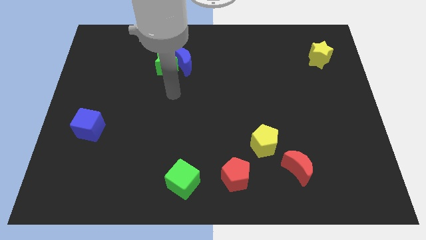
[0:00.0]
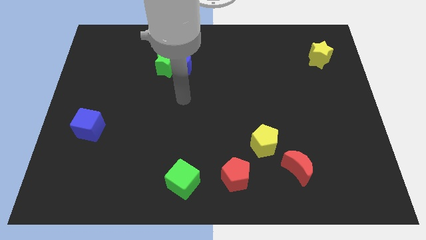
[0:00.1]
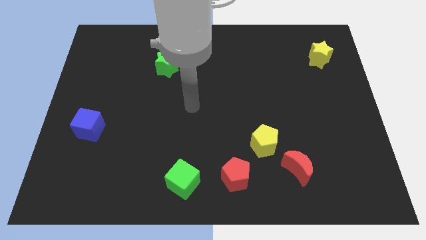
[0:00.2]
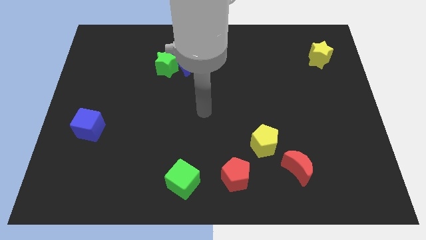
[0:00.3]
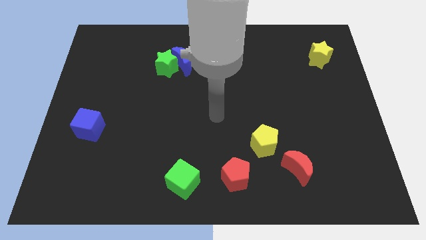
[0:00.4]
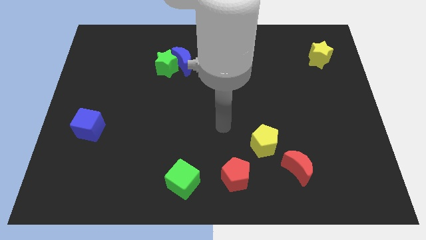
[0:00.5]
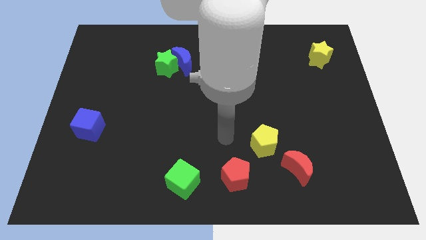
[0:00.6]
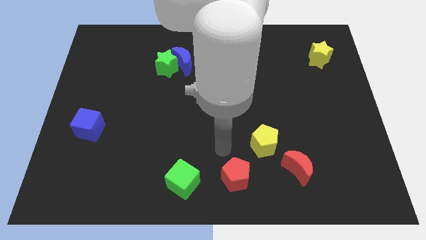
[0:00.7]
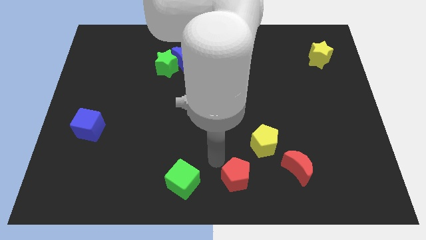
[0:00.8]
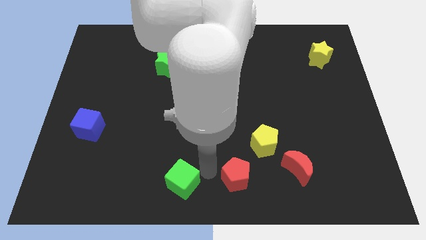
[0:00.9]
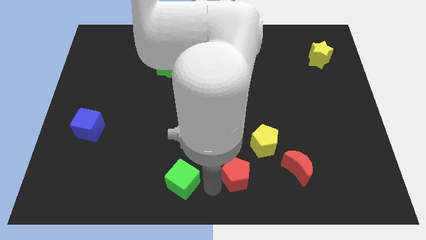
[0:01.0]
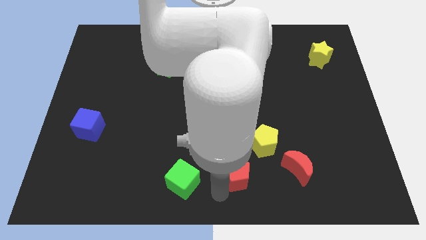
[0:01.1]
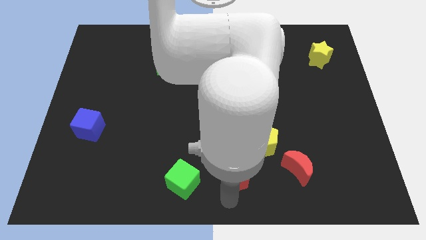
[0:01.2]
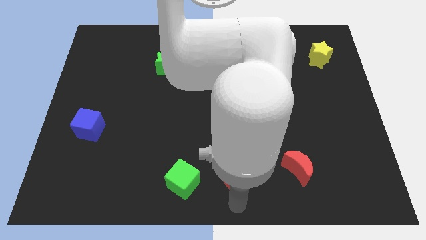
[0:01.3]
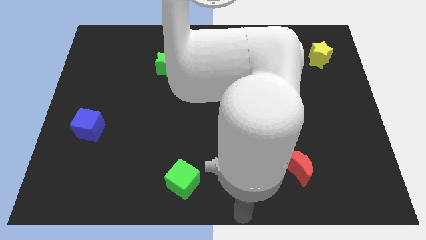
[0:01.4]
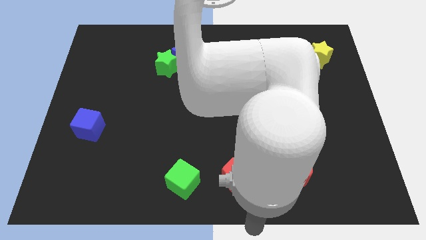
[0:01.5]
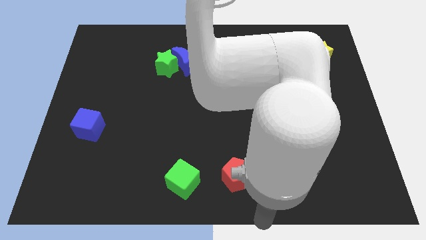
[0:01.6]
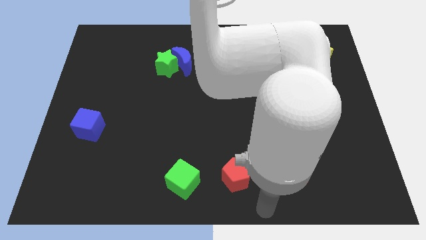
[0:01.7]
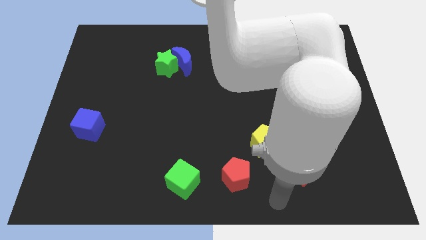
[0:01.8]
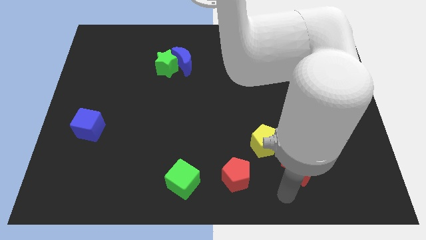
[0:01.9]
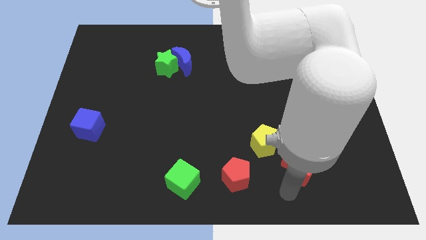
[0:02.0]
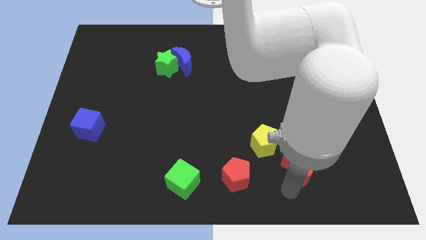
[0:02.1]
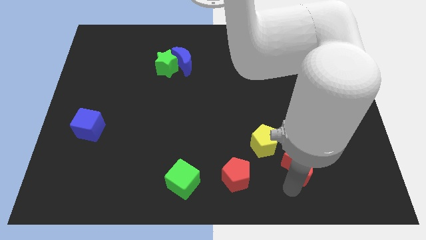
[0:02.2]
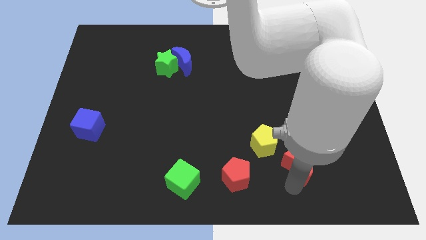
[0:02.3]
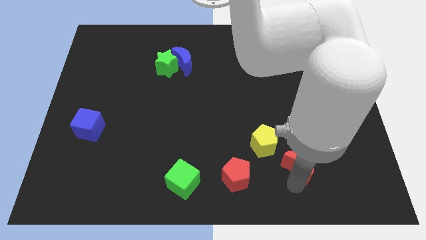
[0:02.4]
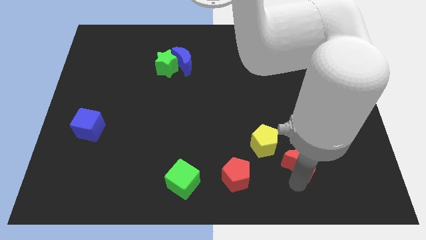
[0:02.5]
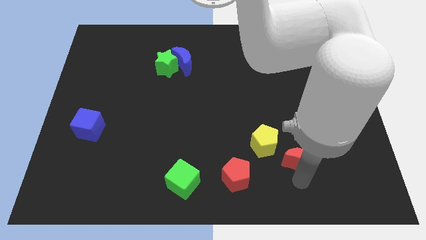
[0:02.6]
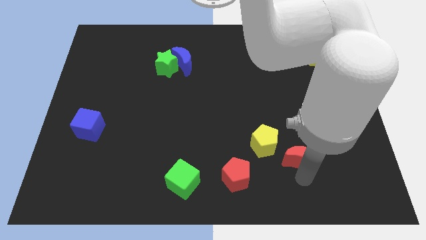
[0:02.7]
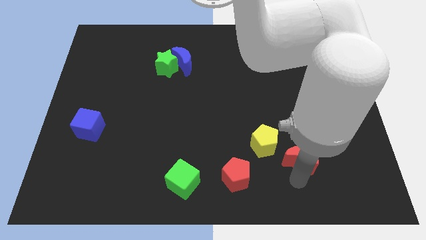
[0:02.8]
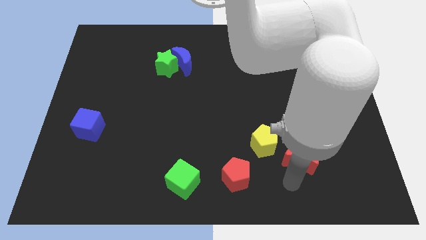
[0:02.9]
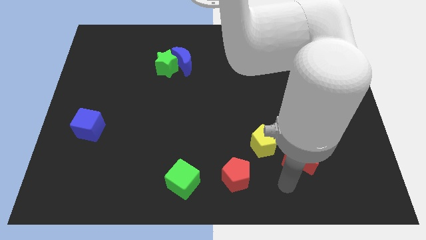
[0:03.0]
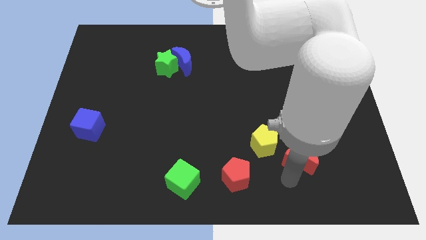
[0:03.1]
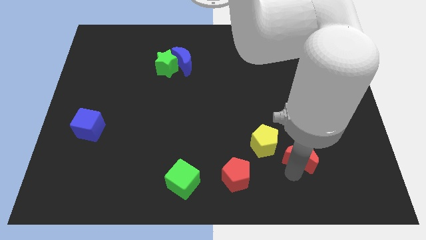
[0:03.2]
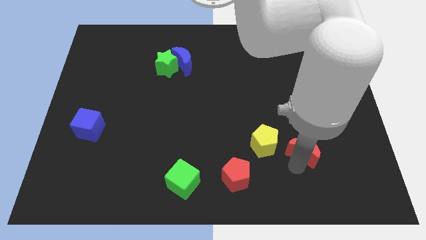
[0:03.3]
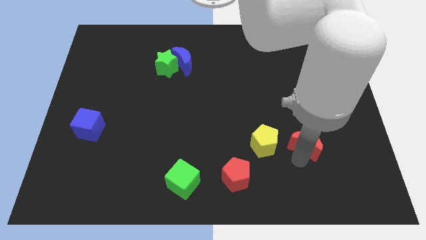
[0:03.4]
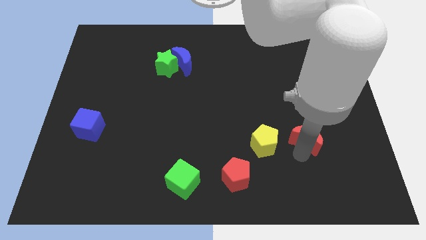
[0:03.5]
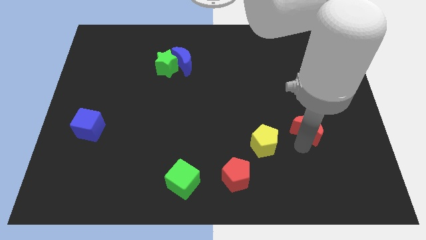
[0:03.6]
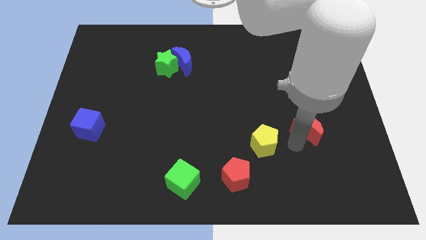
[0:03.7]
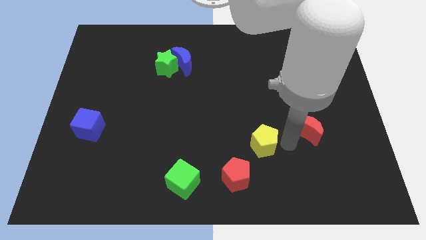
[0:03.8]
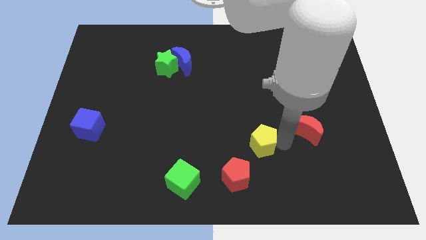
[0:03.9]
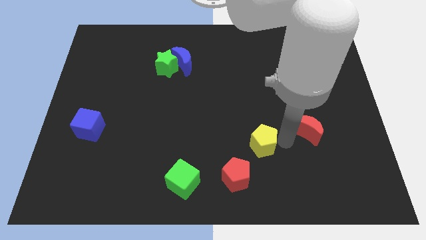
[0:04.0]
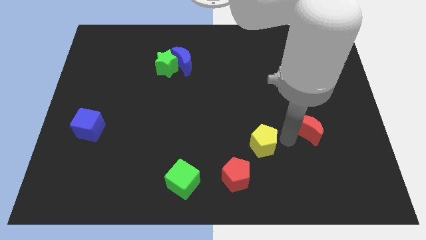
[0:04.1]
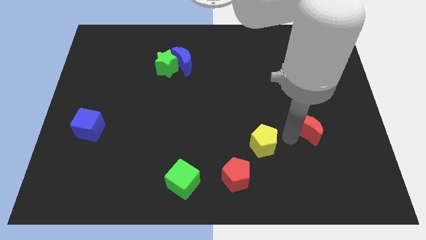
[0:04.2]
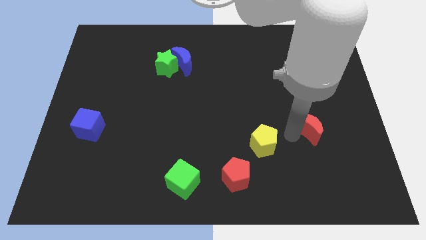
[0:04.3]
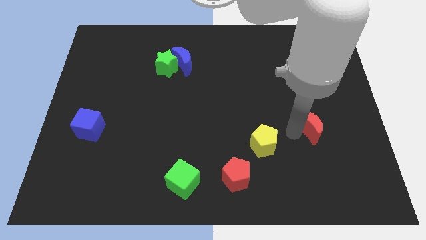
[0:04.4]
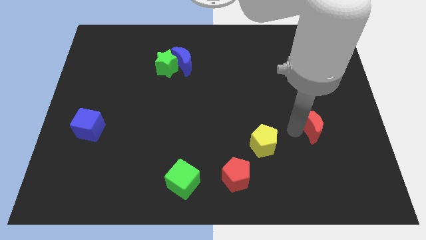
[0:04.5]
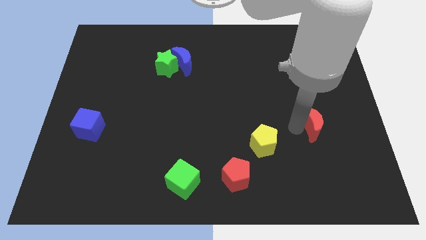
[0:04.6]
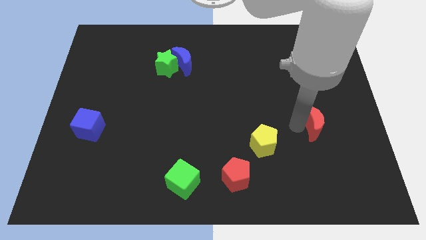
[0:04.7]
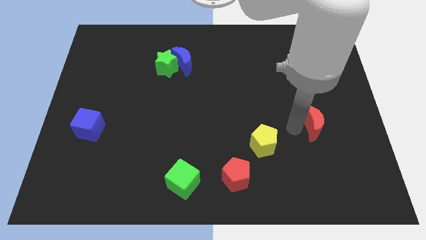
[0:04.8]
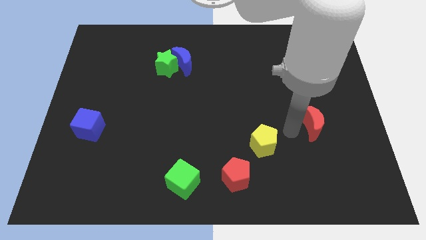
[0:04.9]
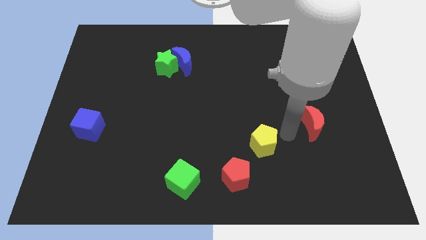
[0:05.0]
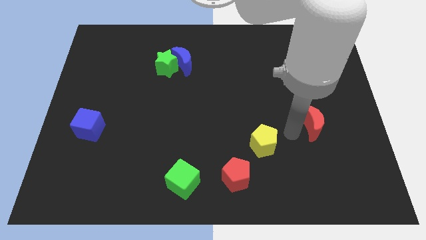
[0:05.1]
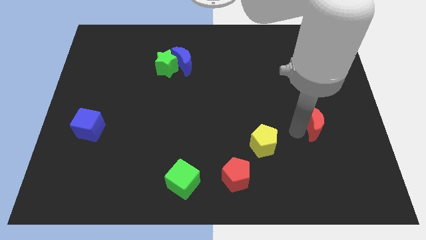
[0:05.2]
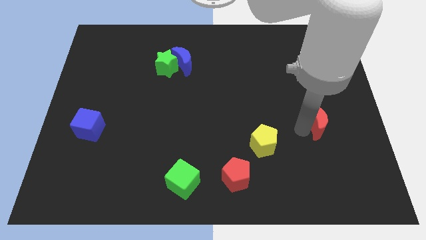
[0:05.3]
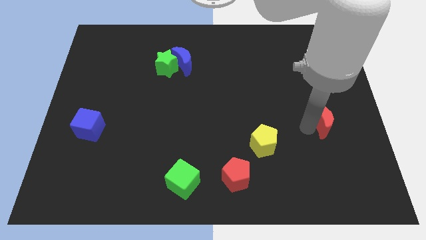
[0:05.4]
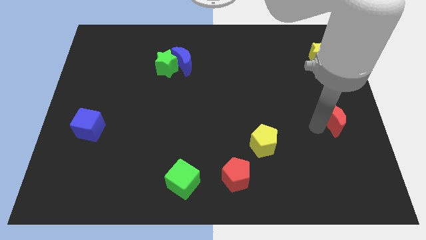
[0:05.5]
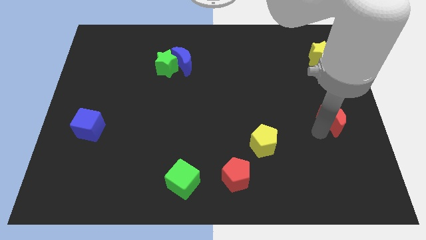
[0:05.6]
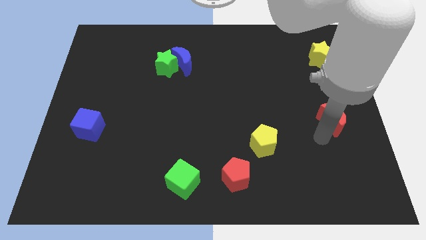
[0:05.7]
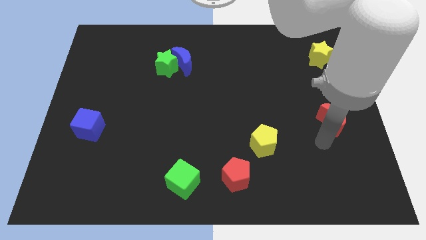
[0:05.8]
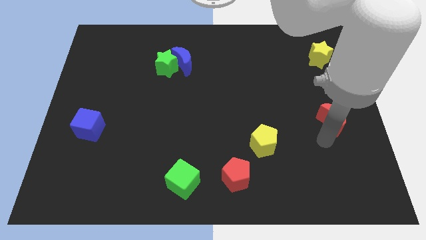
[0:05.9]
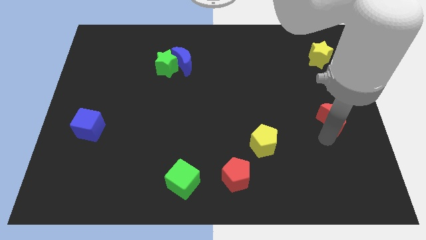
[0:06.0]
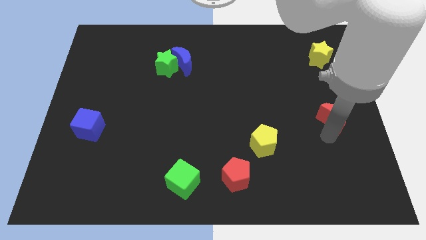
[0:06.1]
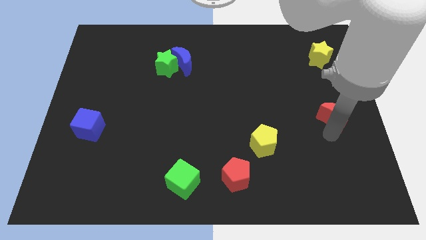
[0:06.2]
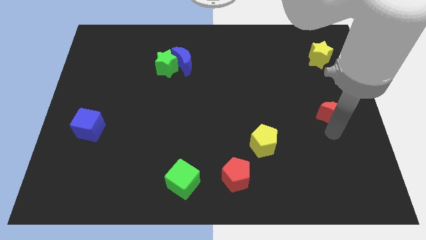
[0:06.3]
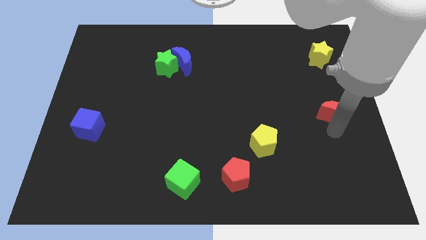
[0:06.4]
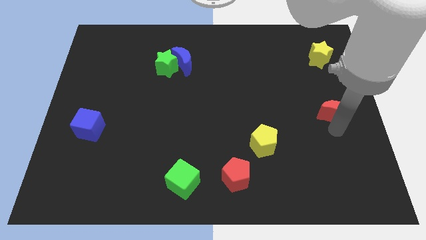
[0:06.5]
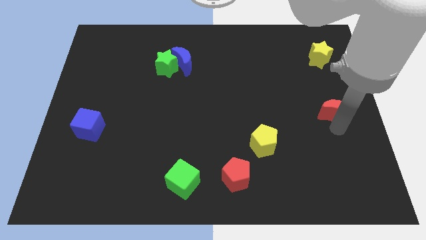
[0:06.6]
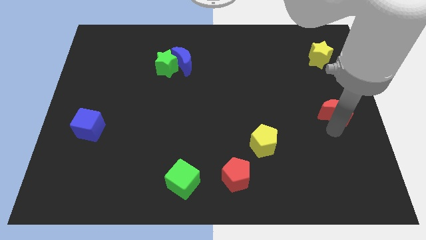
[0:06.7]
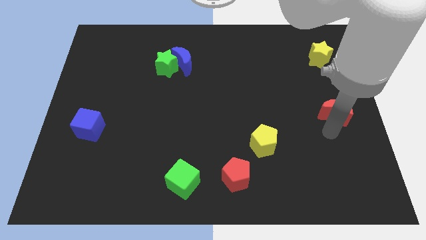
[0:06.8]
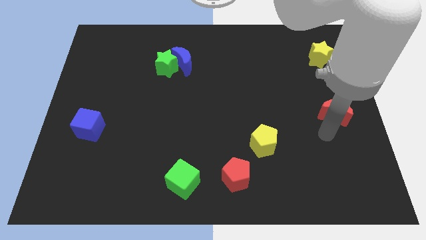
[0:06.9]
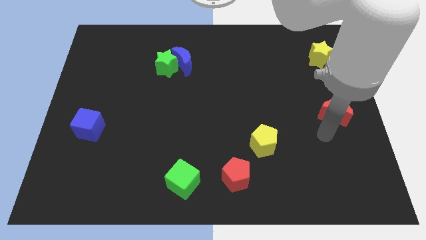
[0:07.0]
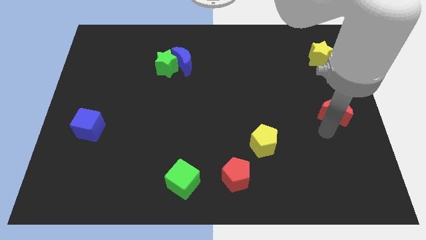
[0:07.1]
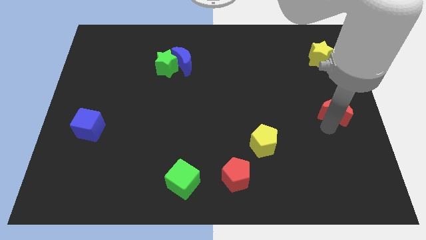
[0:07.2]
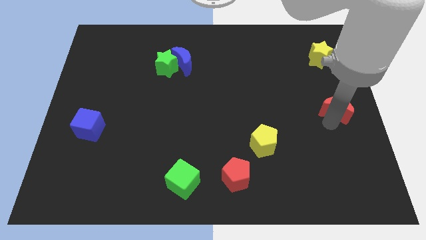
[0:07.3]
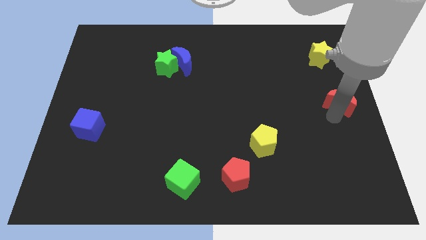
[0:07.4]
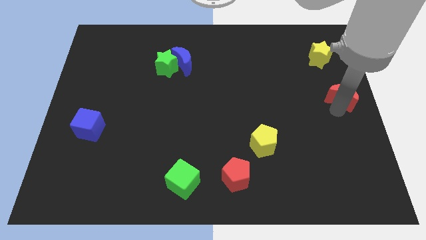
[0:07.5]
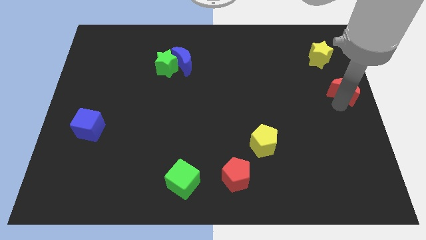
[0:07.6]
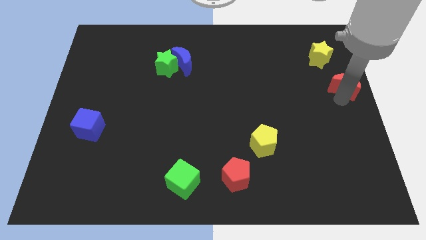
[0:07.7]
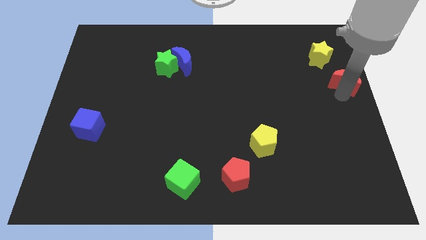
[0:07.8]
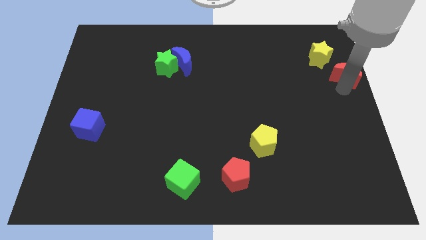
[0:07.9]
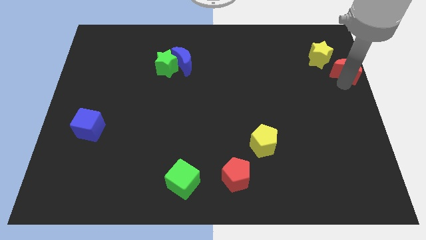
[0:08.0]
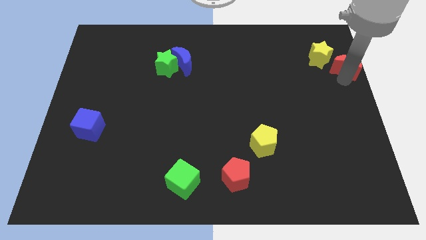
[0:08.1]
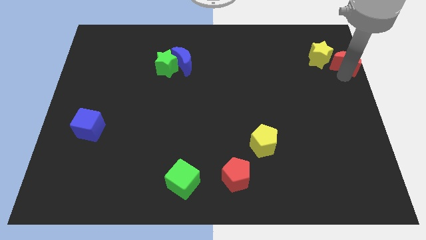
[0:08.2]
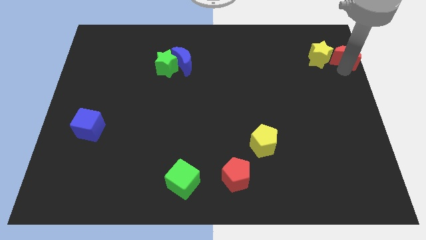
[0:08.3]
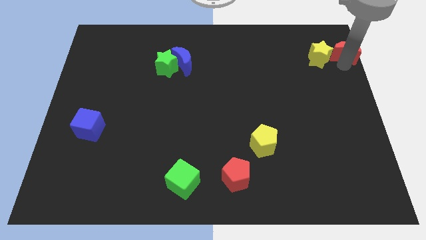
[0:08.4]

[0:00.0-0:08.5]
put the red moon to the top right
